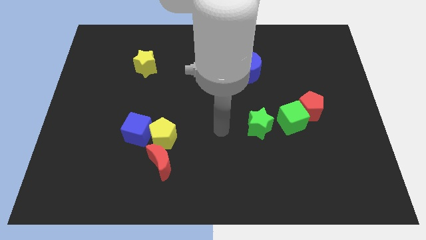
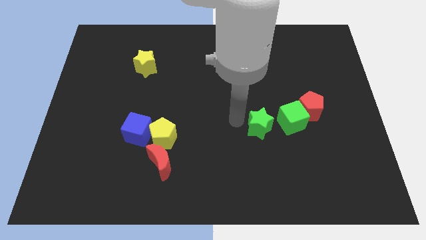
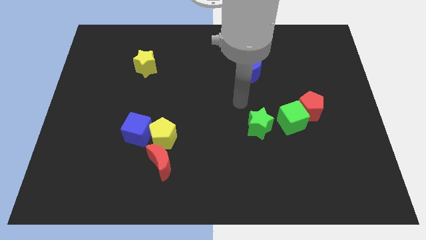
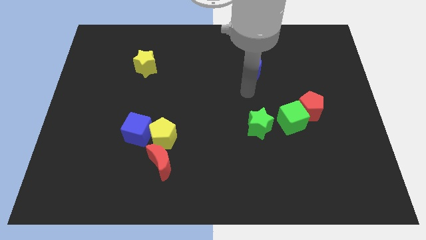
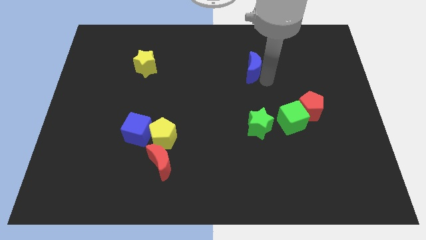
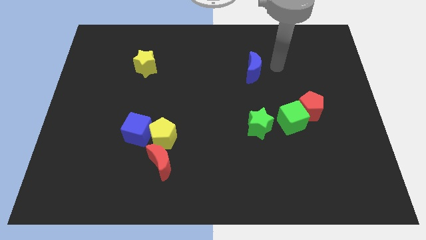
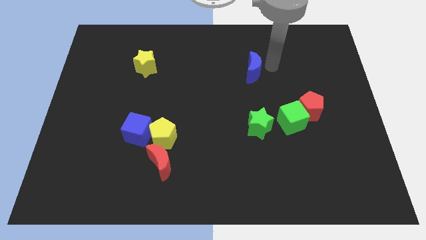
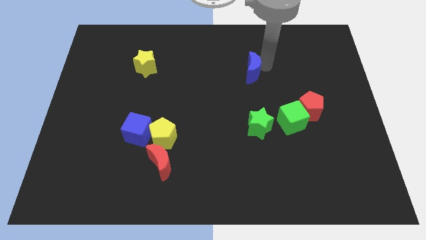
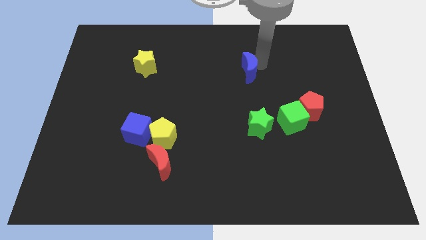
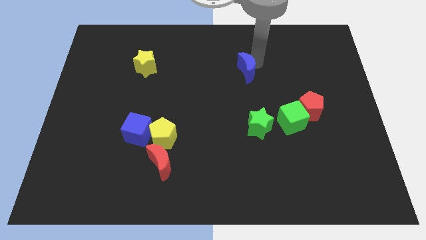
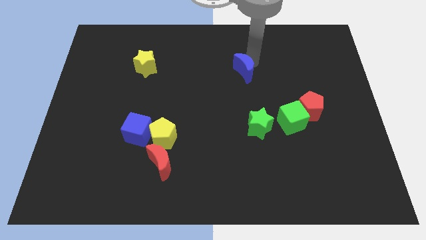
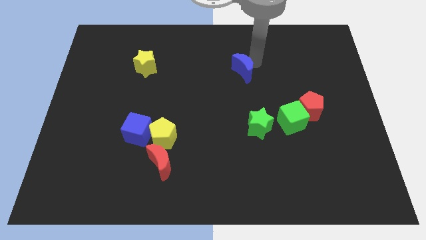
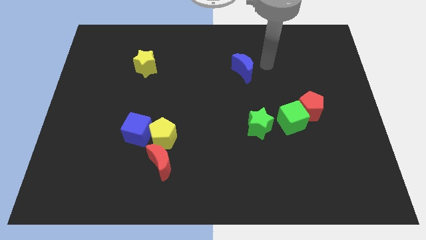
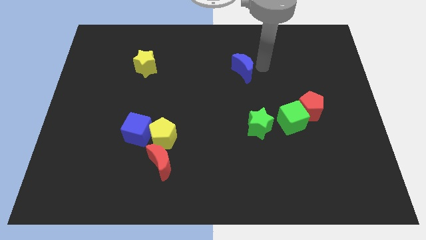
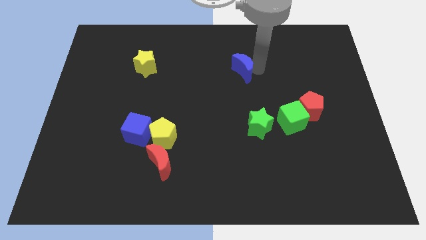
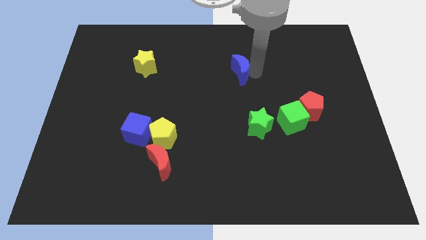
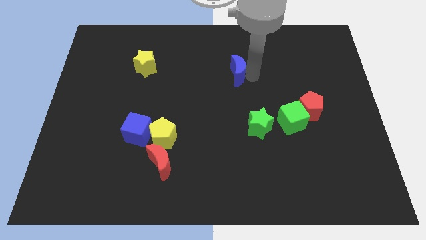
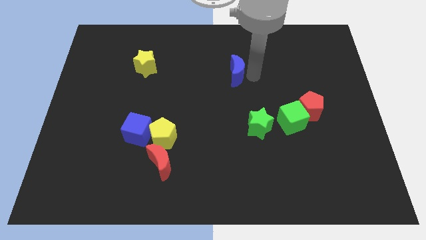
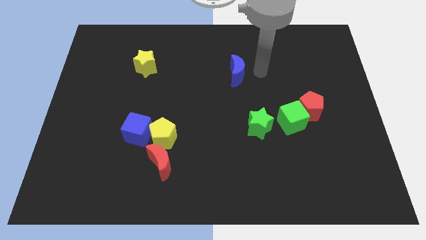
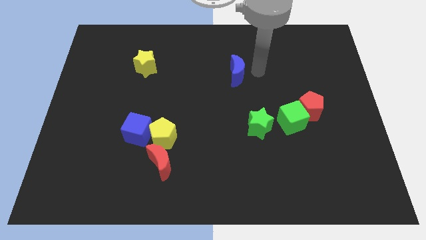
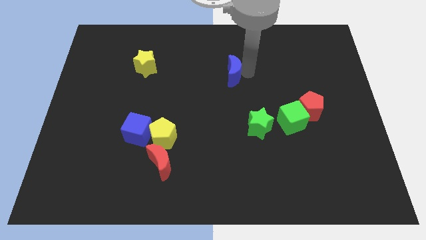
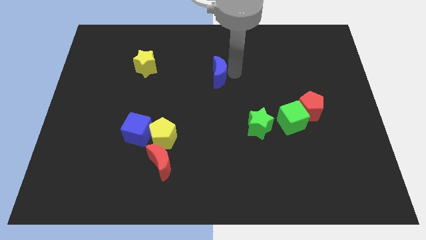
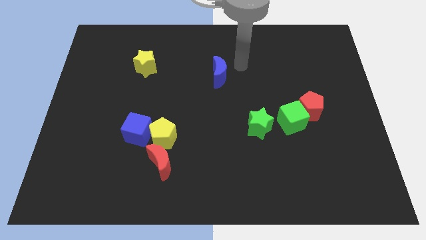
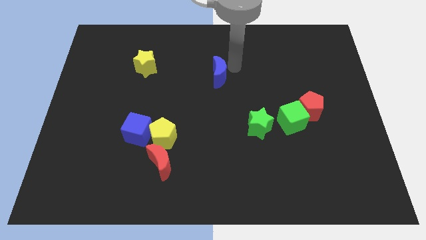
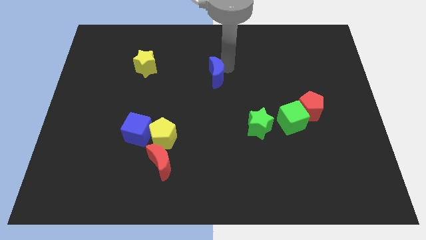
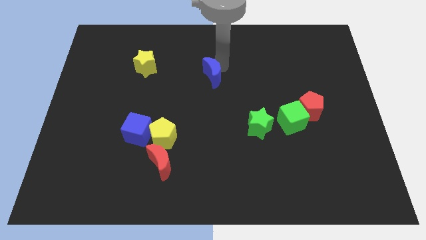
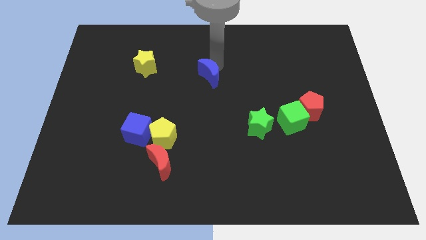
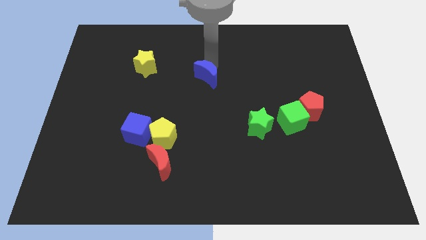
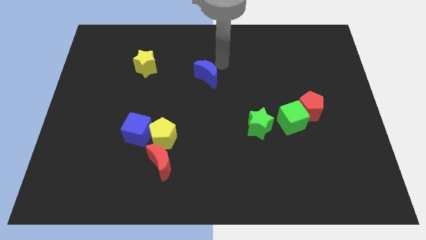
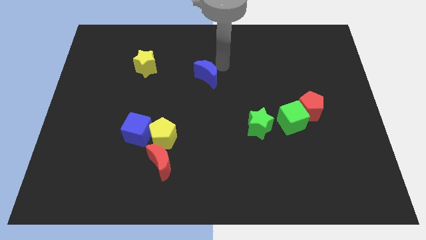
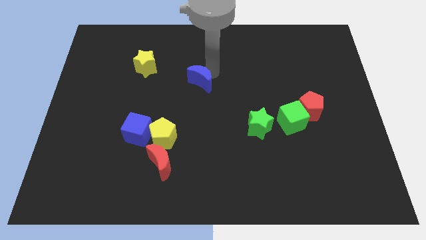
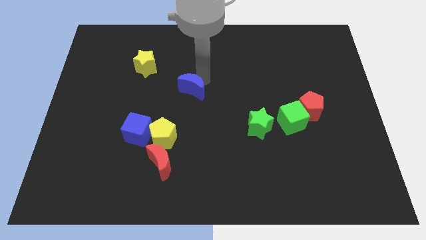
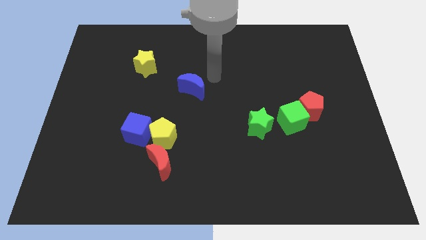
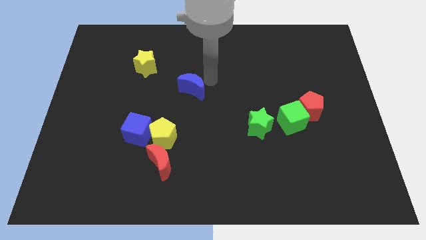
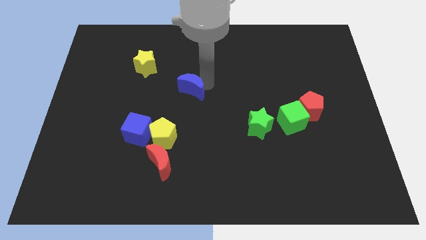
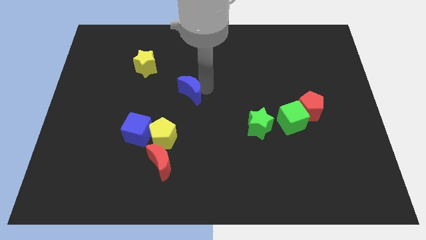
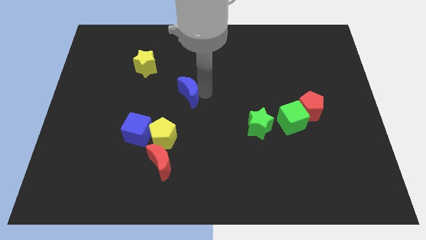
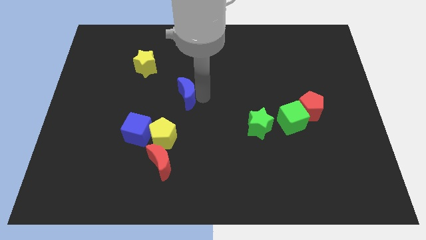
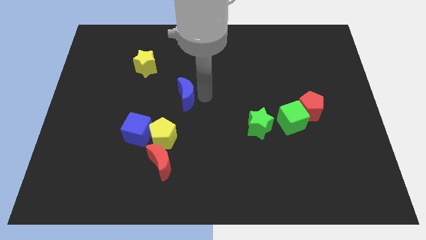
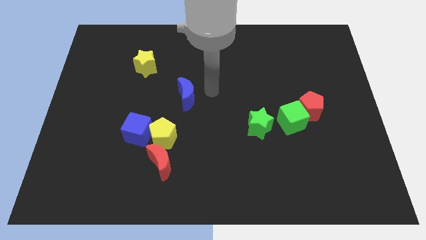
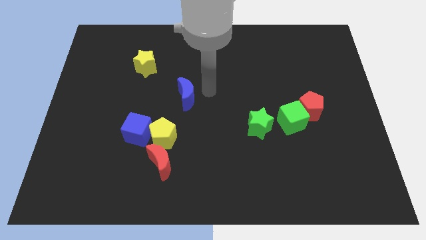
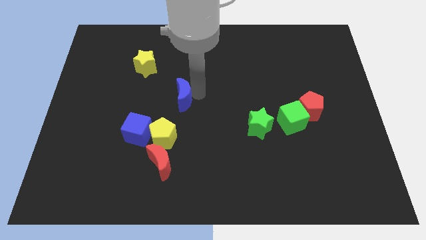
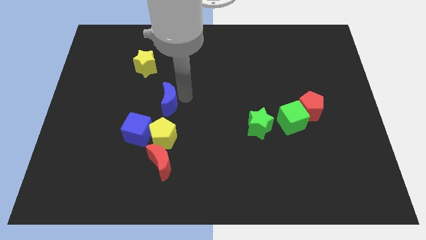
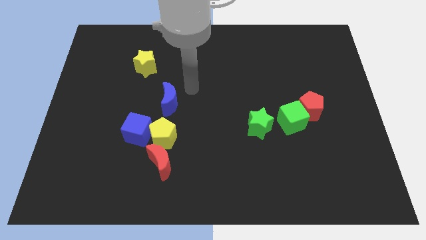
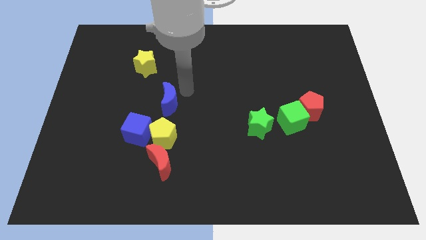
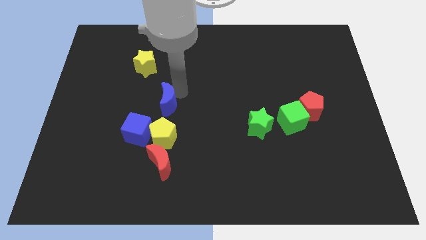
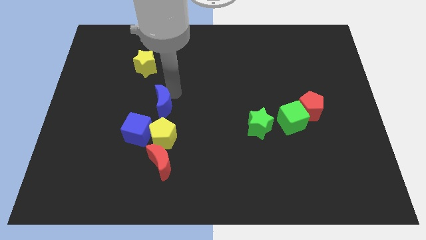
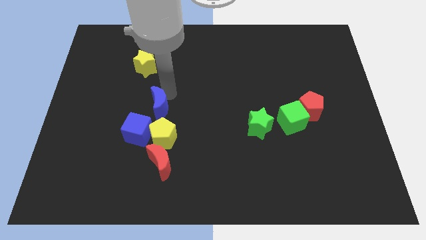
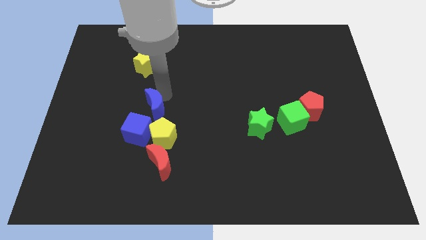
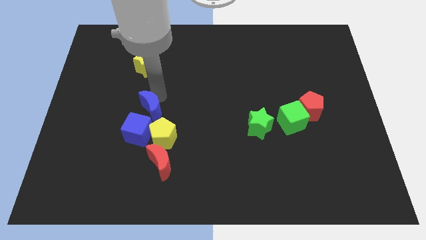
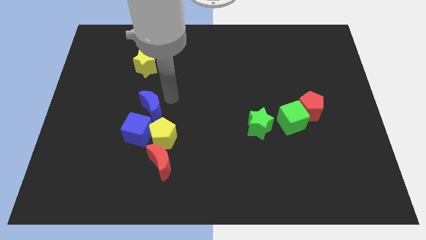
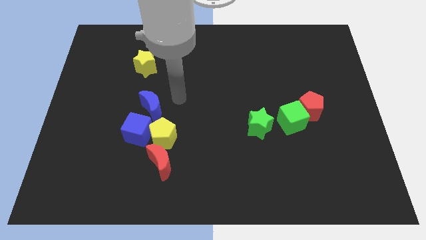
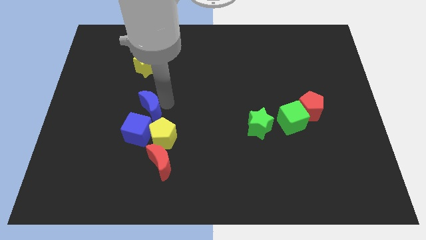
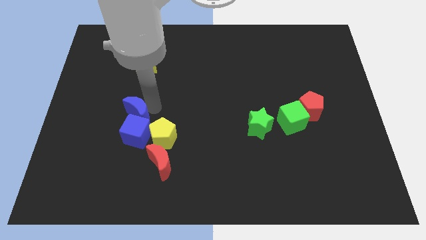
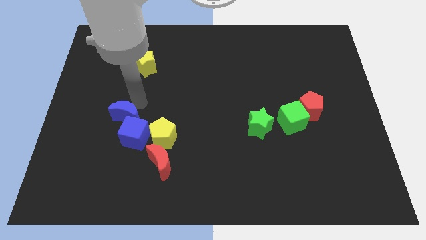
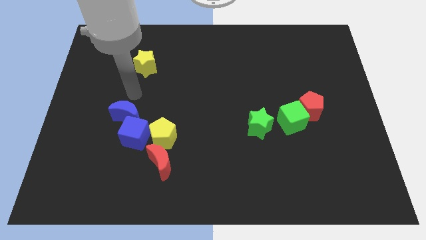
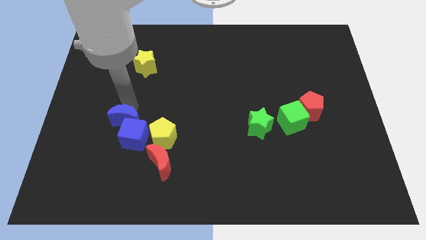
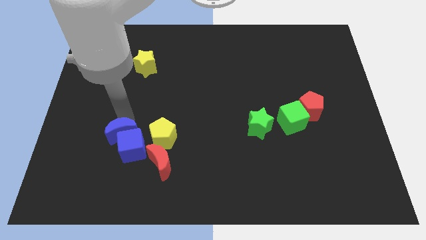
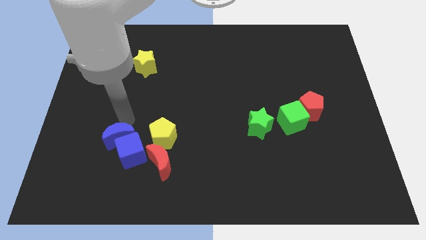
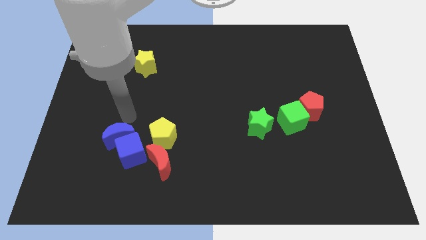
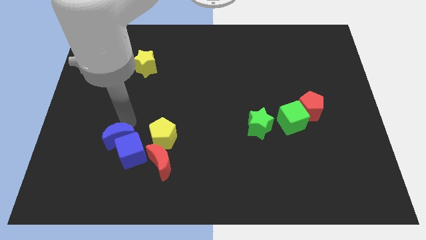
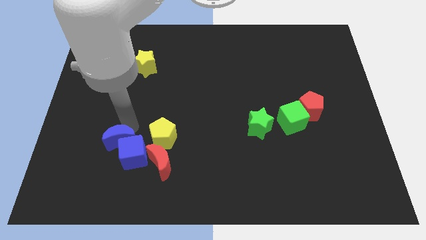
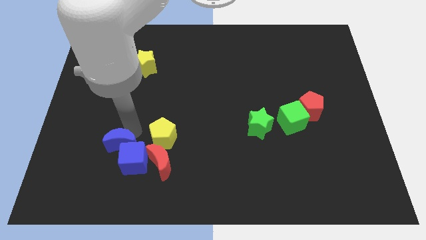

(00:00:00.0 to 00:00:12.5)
push the blue moon just left of the red moon

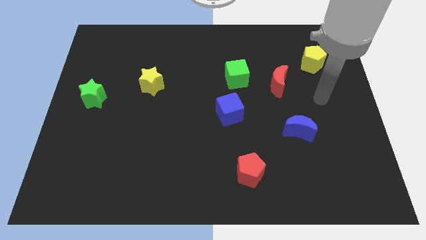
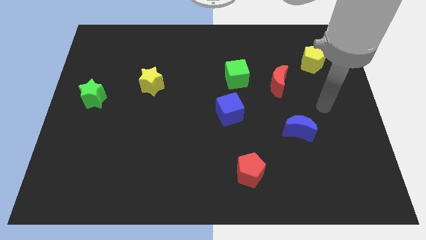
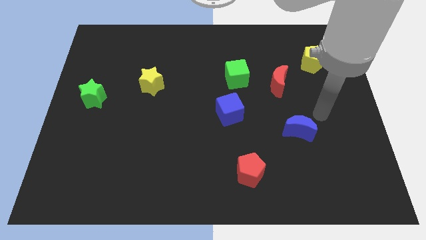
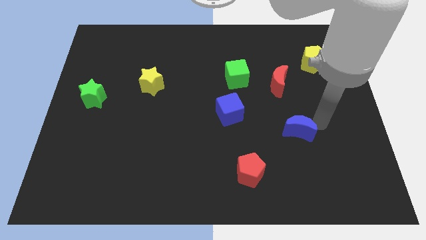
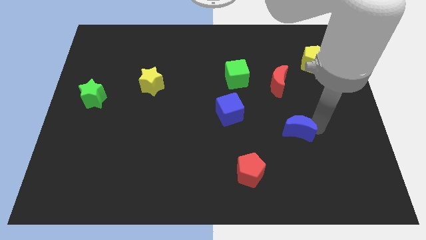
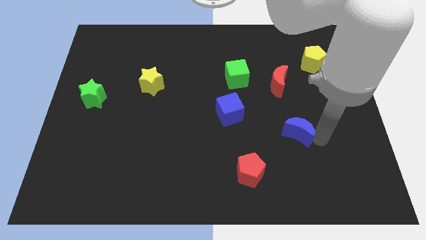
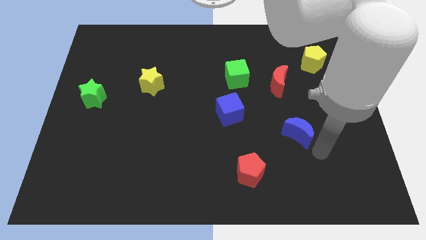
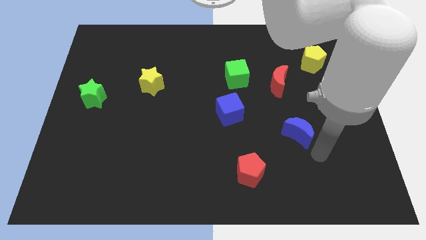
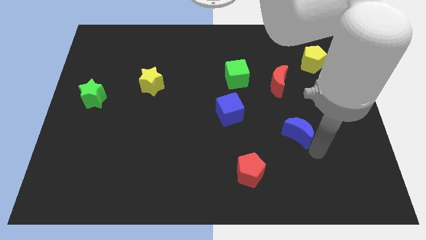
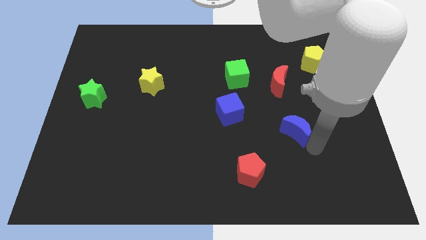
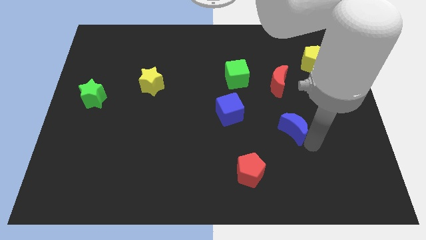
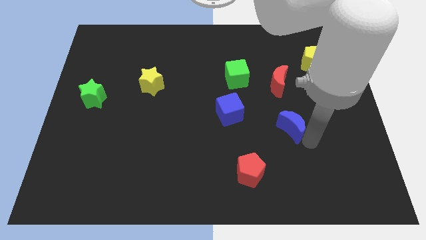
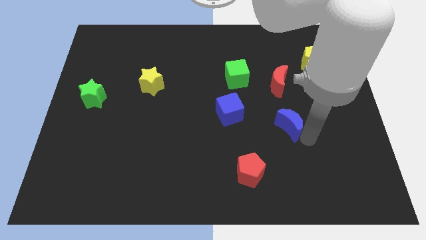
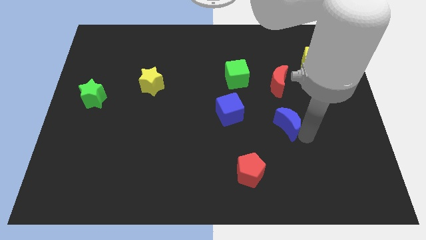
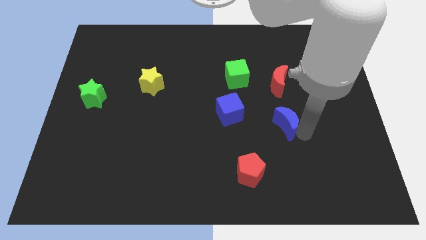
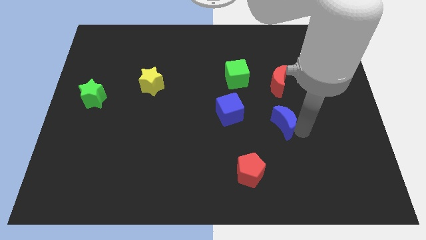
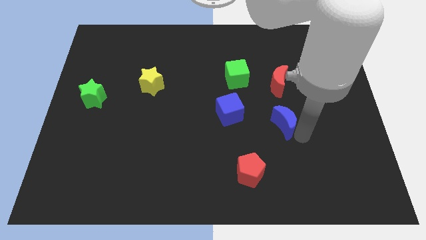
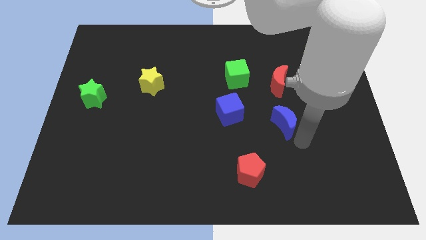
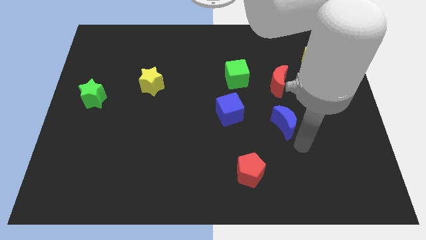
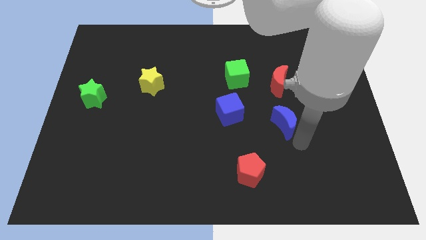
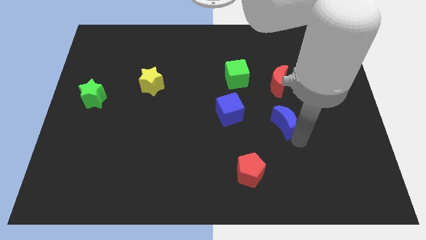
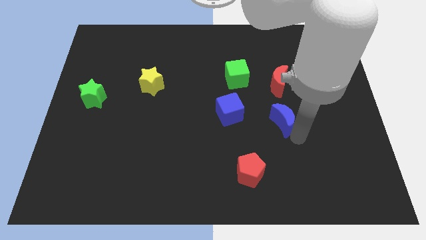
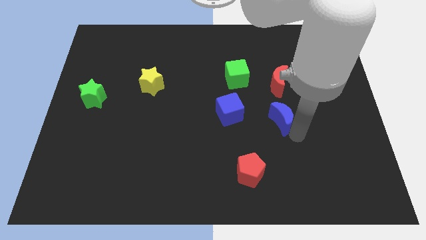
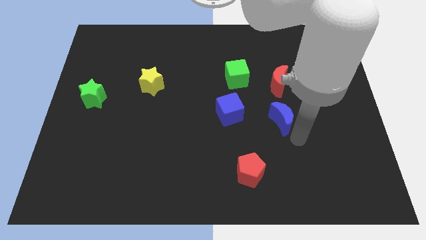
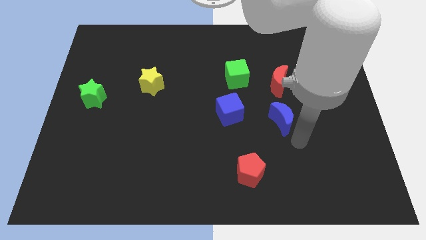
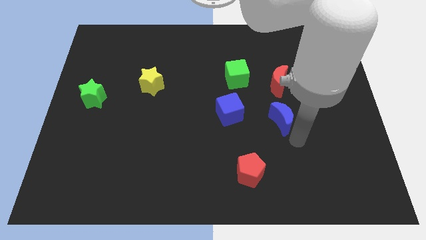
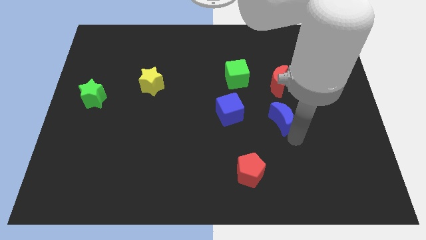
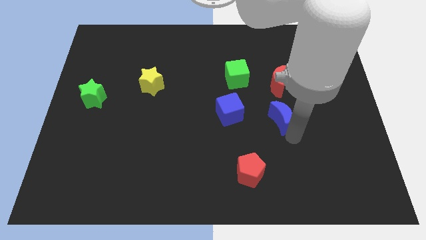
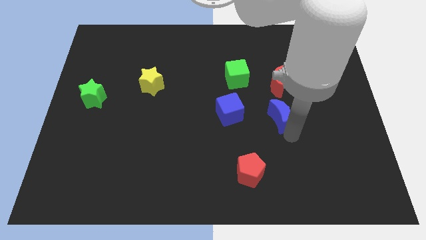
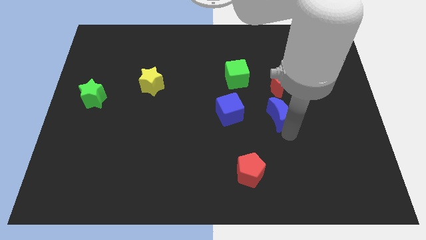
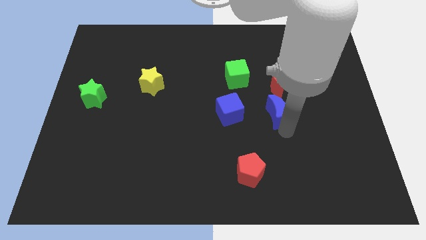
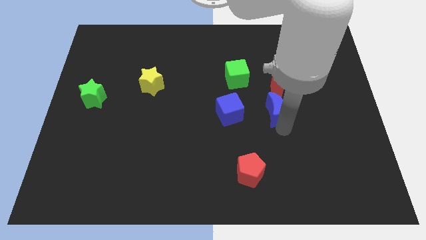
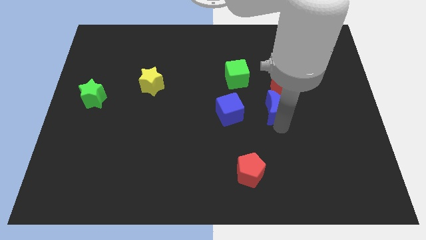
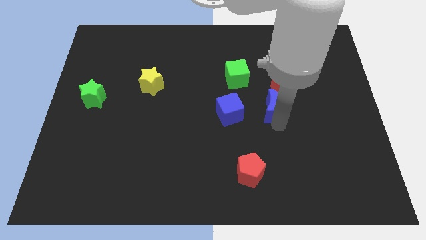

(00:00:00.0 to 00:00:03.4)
slide the blue moon to the bottom right side of the green cube
